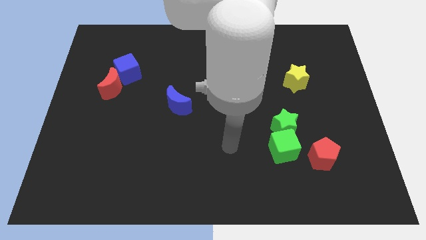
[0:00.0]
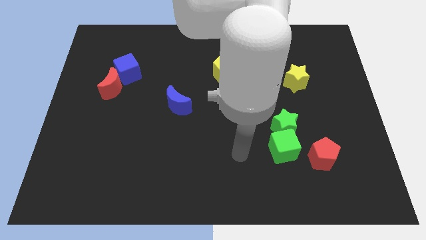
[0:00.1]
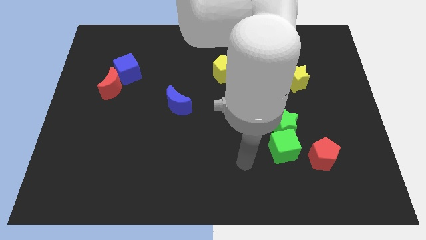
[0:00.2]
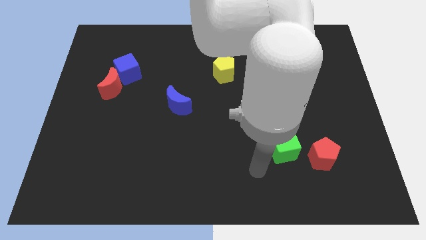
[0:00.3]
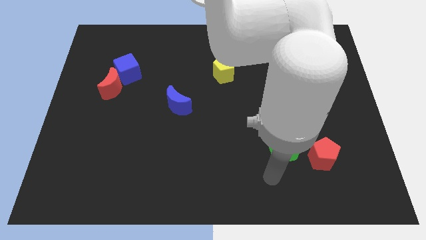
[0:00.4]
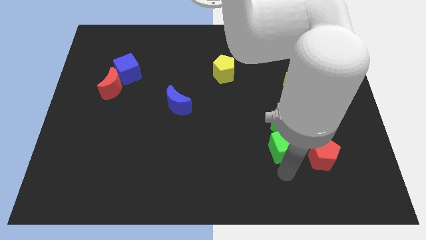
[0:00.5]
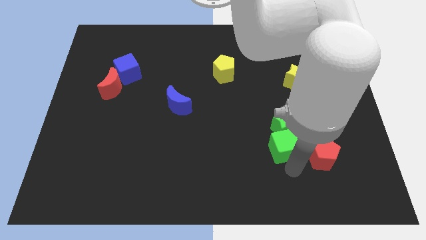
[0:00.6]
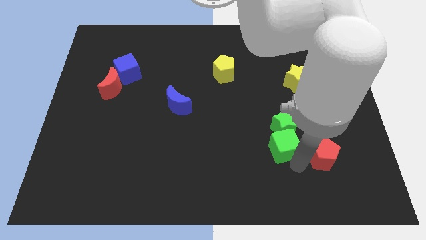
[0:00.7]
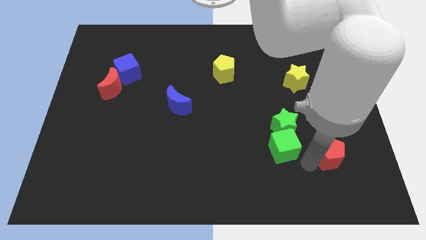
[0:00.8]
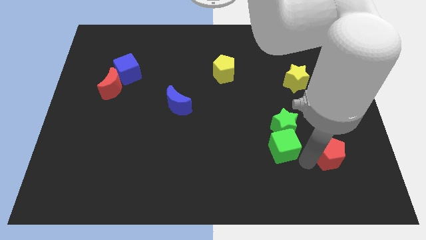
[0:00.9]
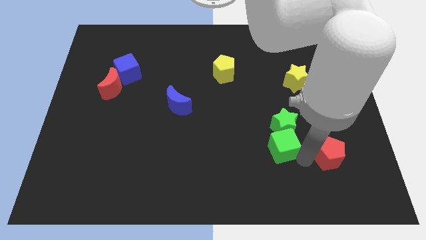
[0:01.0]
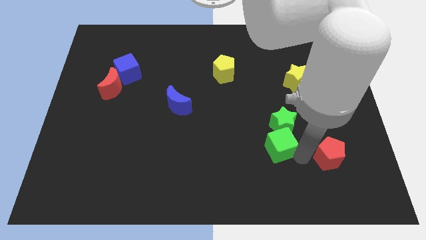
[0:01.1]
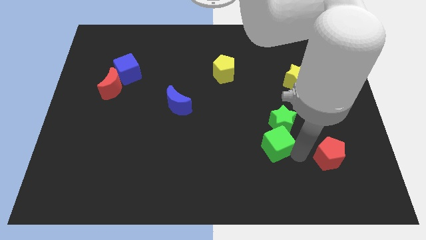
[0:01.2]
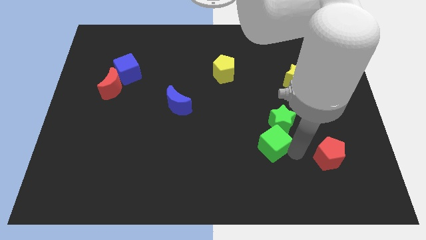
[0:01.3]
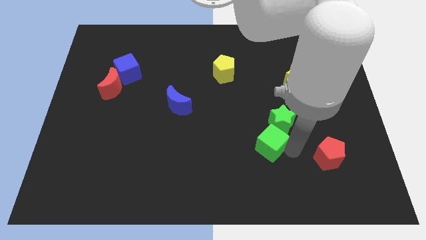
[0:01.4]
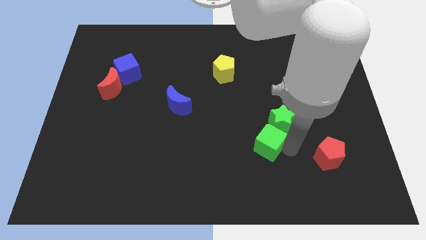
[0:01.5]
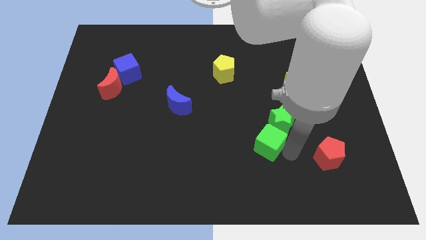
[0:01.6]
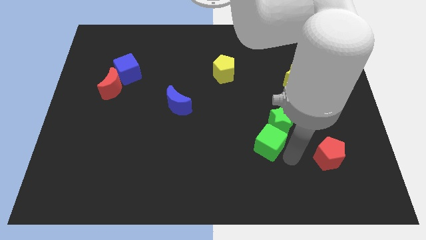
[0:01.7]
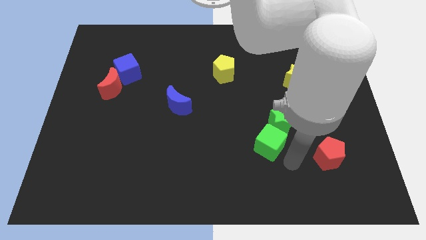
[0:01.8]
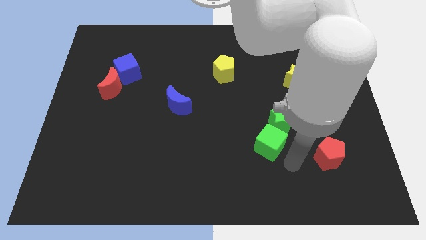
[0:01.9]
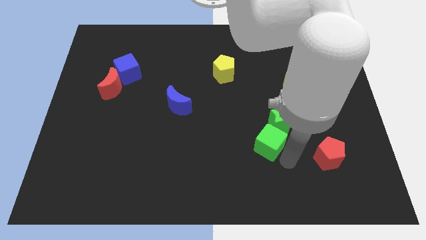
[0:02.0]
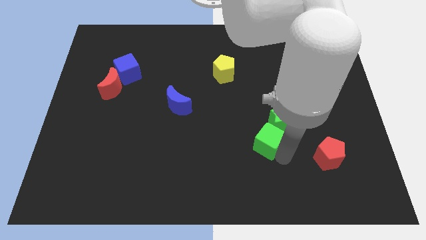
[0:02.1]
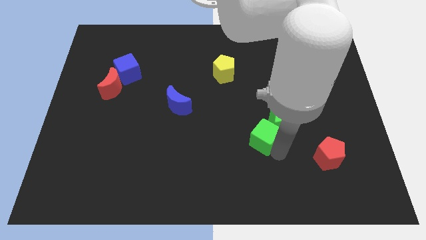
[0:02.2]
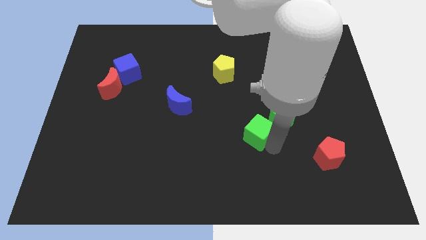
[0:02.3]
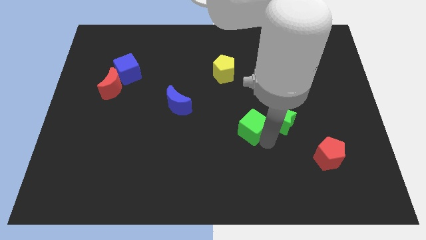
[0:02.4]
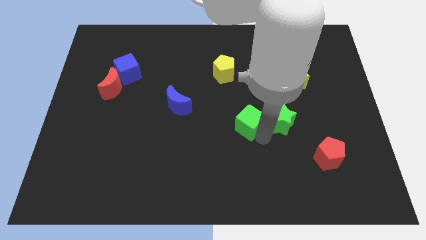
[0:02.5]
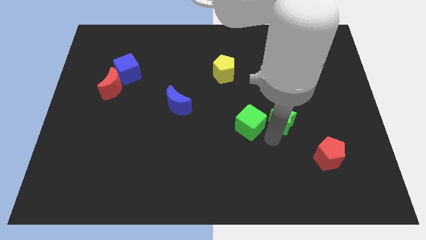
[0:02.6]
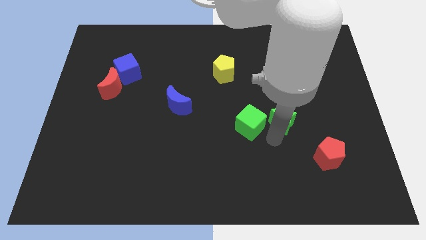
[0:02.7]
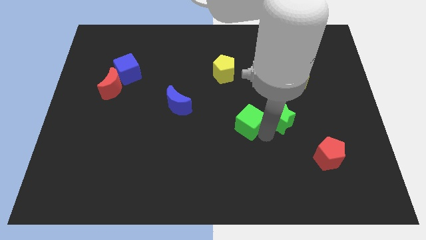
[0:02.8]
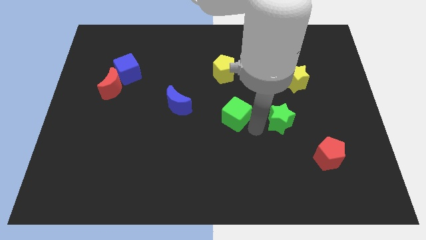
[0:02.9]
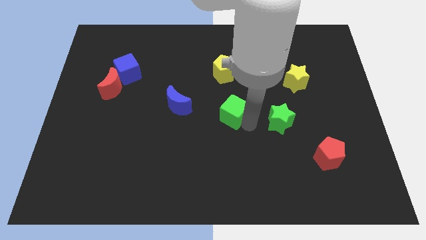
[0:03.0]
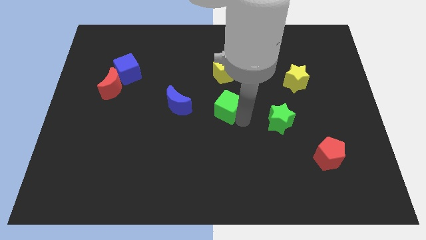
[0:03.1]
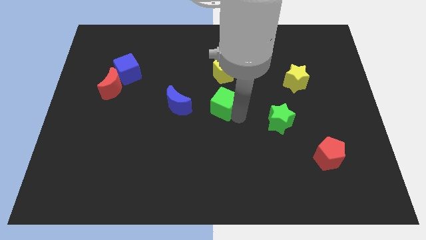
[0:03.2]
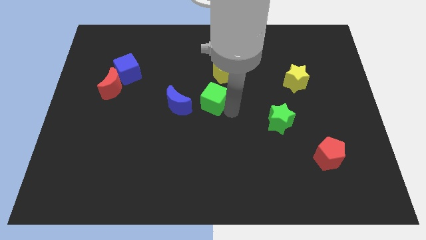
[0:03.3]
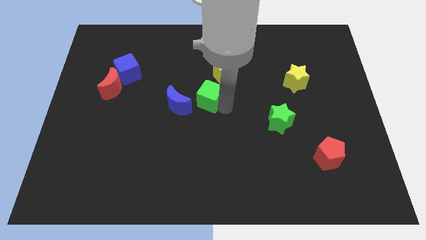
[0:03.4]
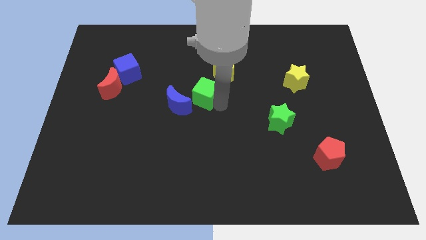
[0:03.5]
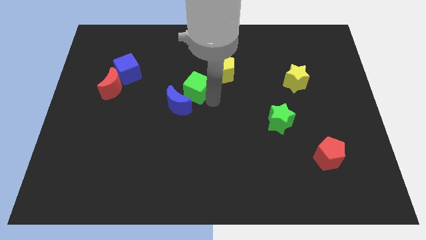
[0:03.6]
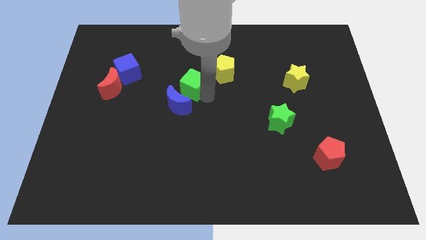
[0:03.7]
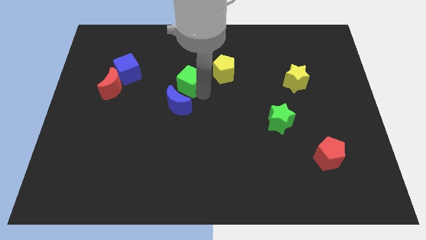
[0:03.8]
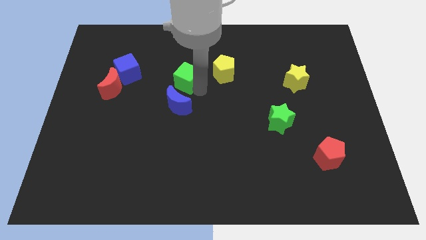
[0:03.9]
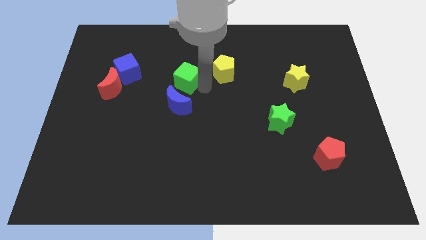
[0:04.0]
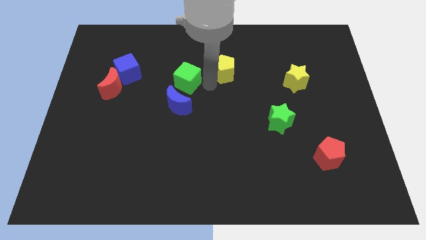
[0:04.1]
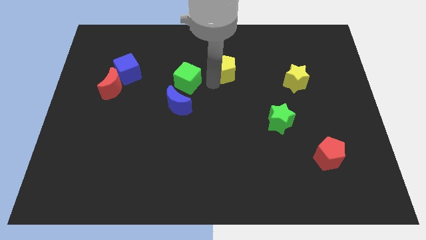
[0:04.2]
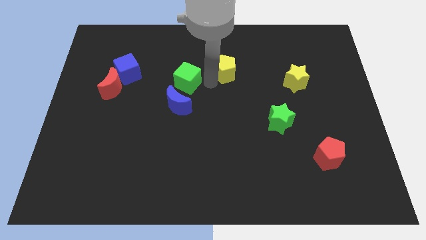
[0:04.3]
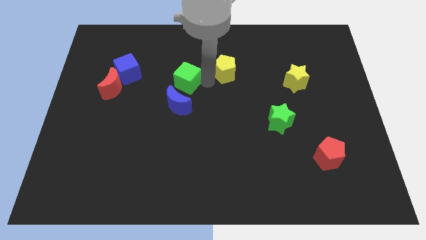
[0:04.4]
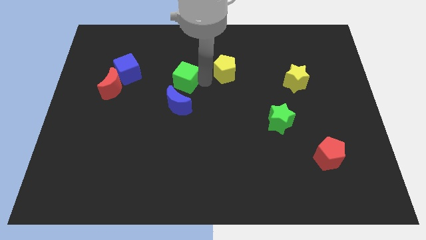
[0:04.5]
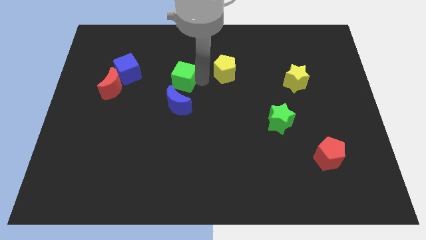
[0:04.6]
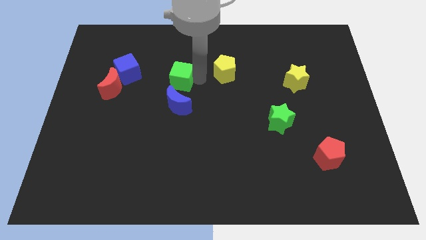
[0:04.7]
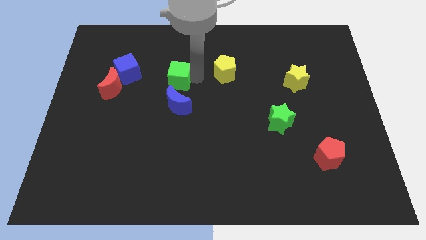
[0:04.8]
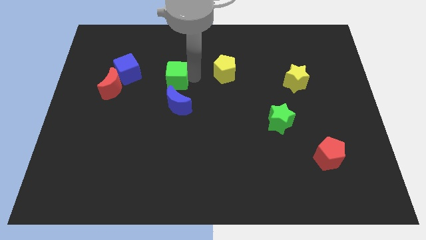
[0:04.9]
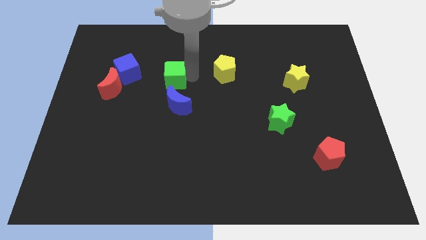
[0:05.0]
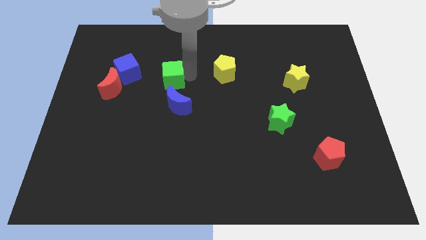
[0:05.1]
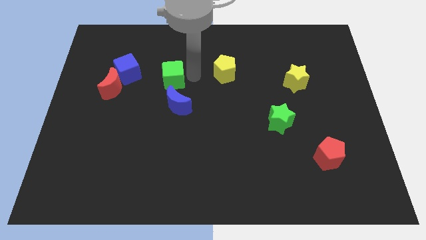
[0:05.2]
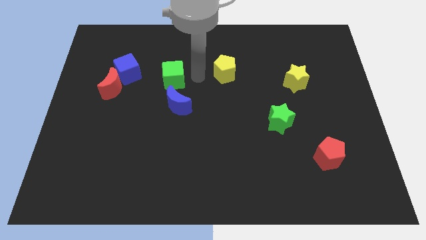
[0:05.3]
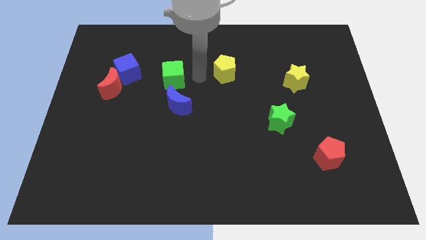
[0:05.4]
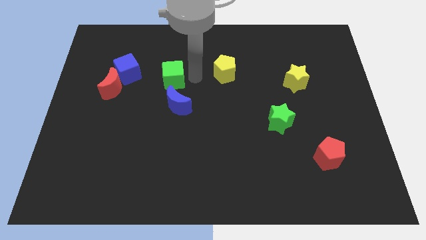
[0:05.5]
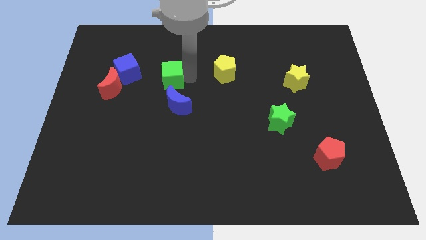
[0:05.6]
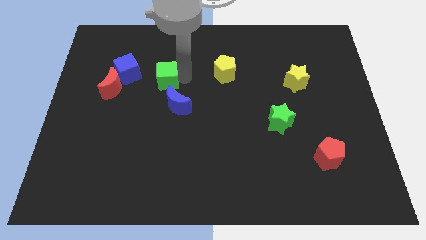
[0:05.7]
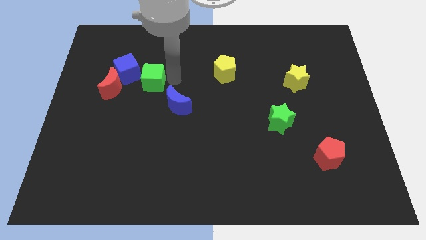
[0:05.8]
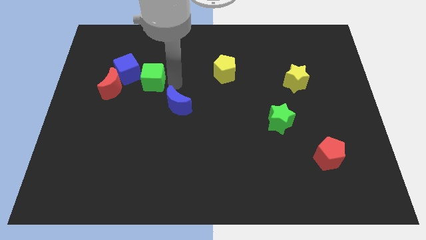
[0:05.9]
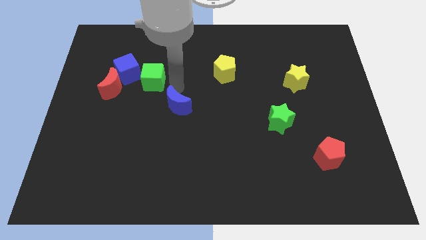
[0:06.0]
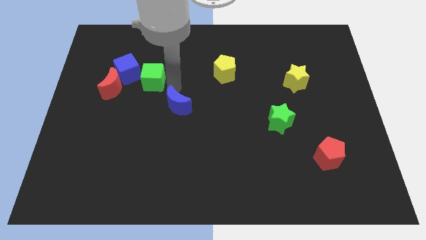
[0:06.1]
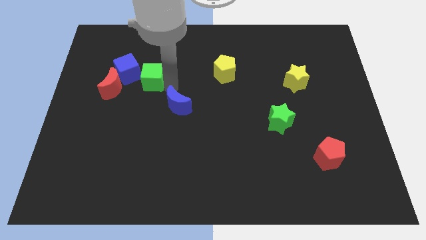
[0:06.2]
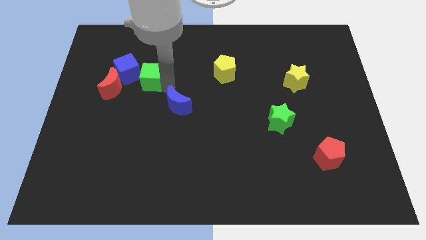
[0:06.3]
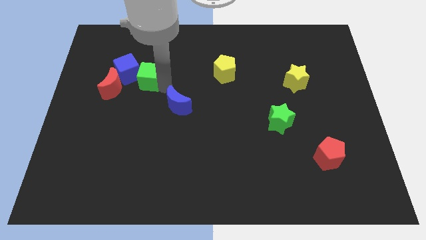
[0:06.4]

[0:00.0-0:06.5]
move the green cube towards the blue cube

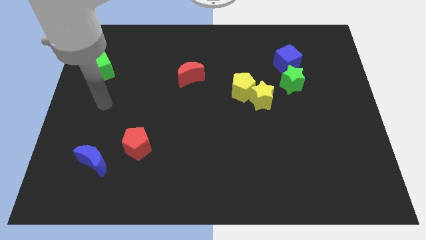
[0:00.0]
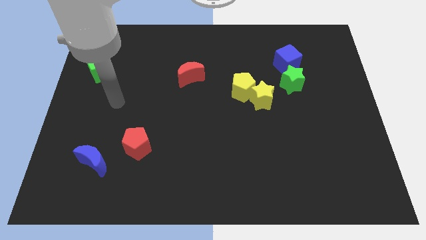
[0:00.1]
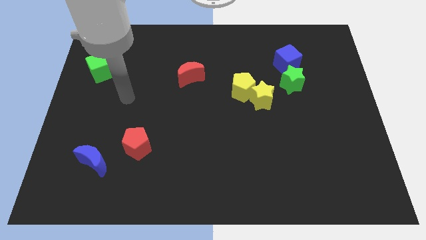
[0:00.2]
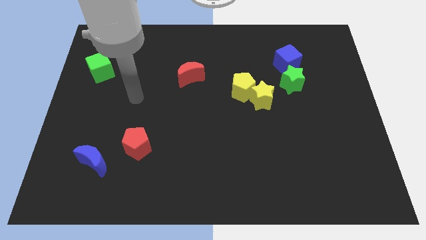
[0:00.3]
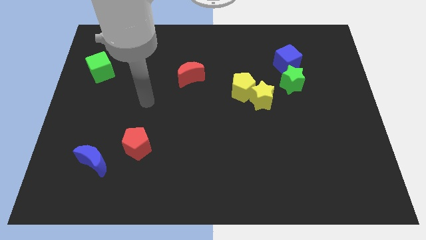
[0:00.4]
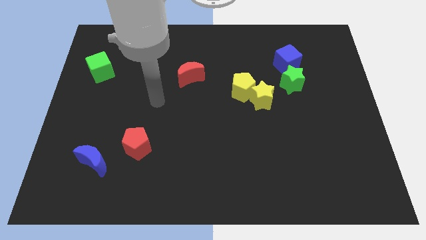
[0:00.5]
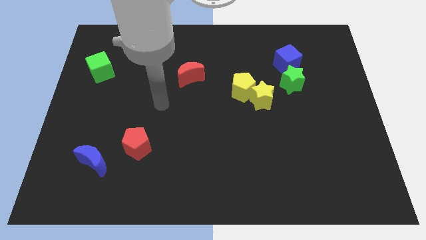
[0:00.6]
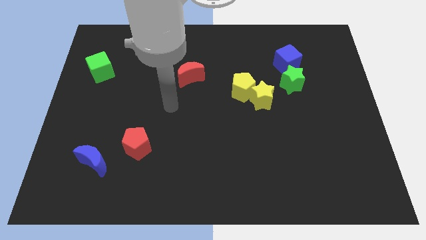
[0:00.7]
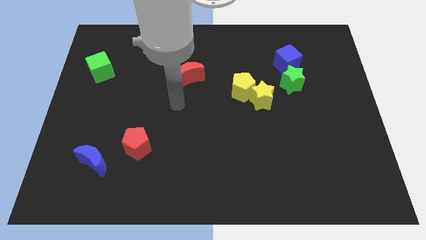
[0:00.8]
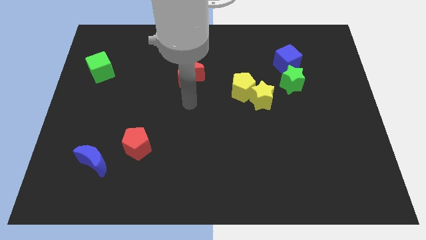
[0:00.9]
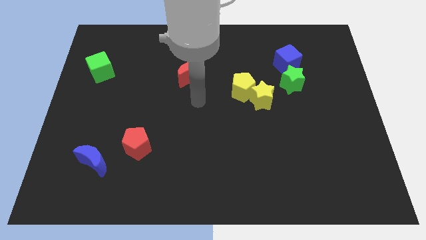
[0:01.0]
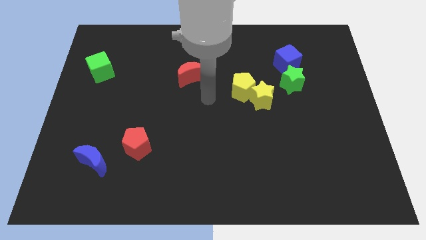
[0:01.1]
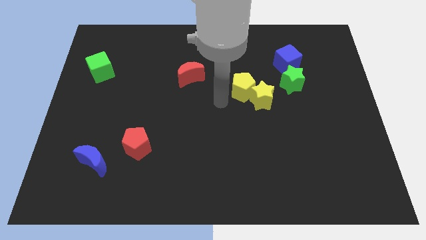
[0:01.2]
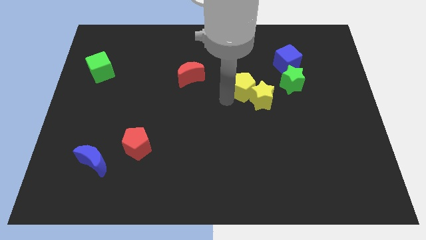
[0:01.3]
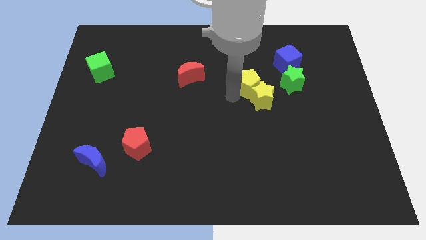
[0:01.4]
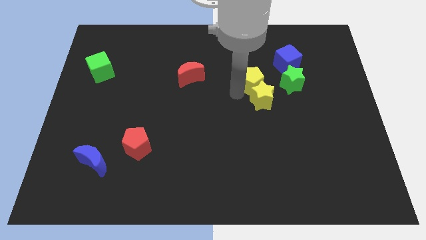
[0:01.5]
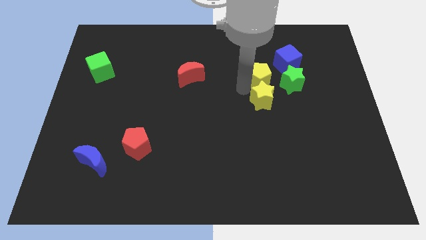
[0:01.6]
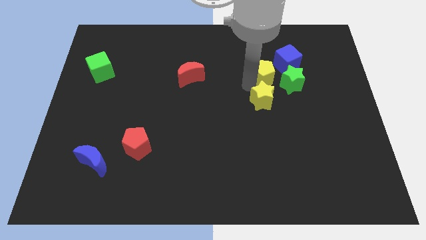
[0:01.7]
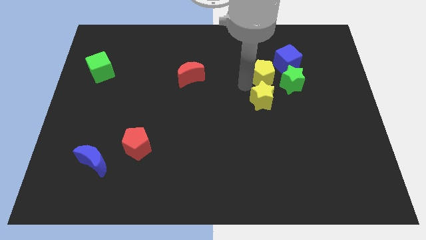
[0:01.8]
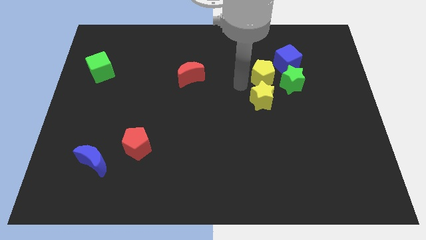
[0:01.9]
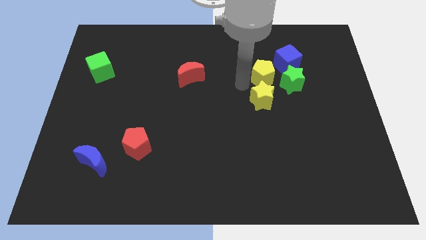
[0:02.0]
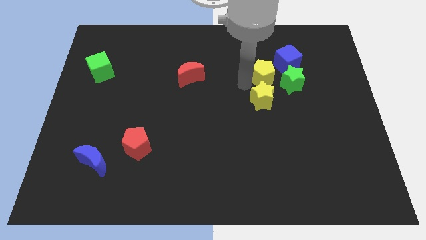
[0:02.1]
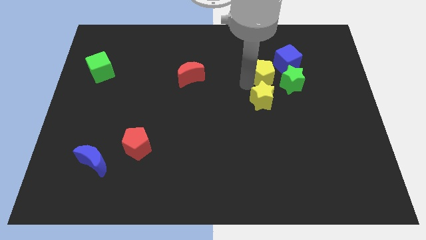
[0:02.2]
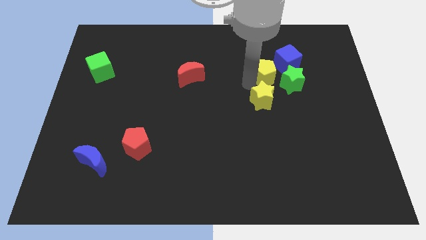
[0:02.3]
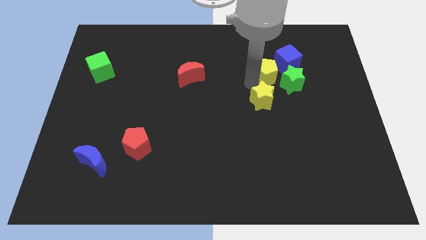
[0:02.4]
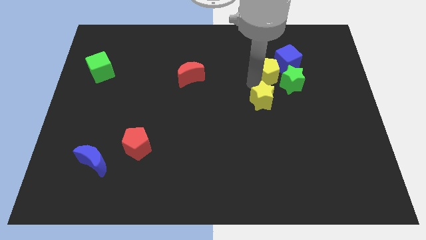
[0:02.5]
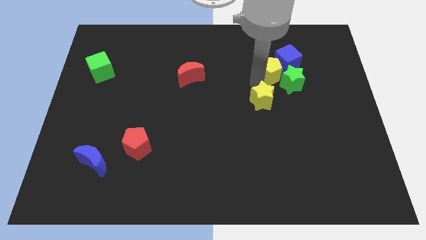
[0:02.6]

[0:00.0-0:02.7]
slide the yellow pentagon close to the blue cube
